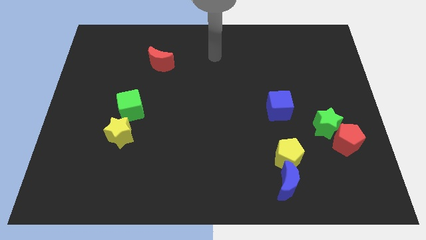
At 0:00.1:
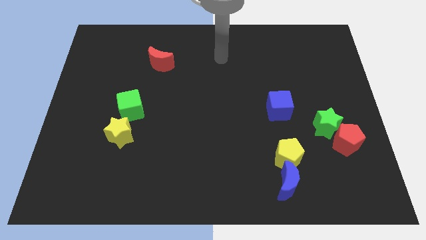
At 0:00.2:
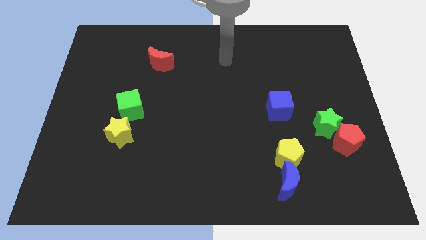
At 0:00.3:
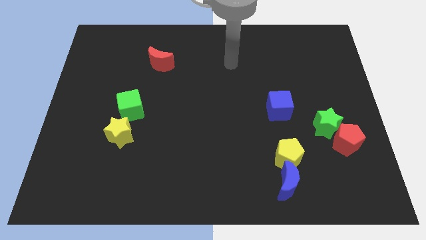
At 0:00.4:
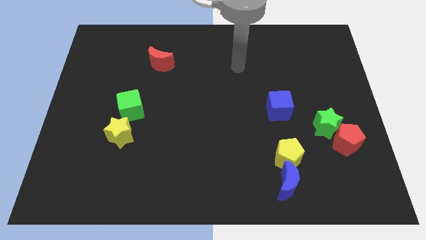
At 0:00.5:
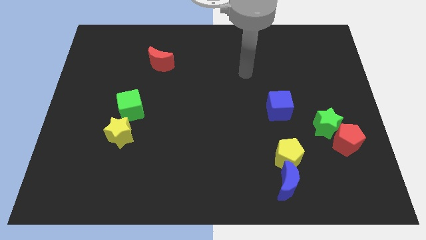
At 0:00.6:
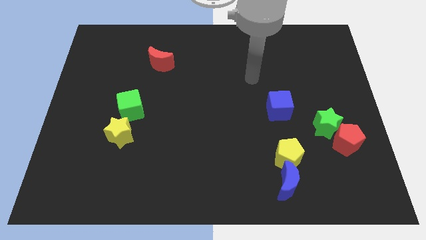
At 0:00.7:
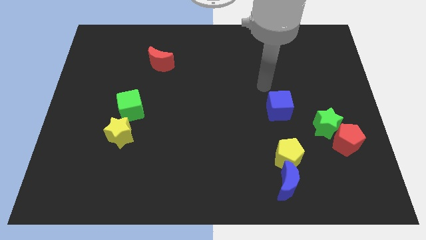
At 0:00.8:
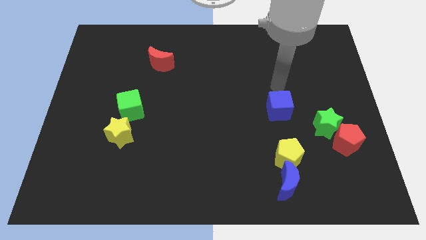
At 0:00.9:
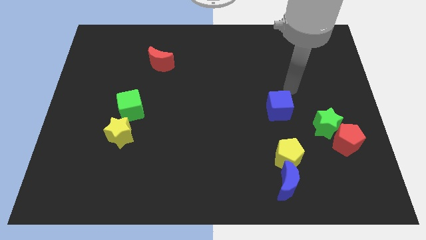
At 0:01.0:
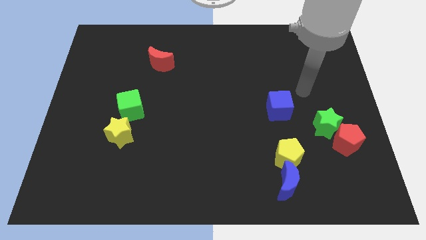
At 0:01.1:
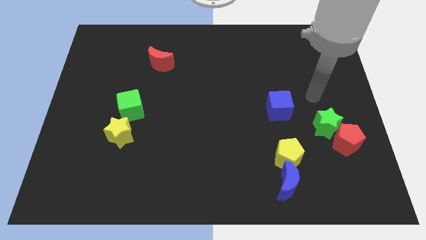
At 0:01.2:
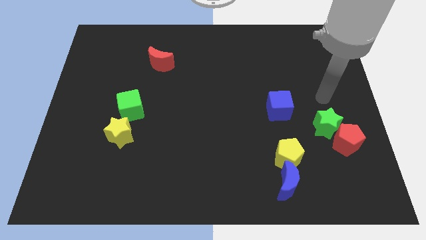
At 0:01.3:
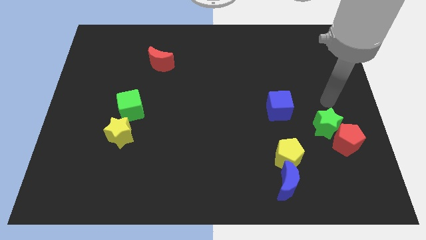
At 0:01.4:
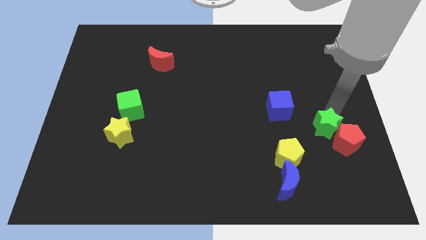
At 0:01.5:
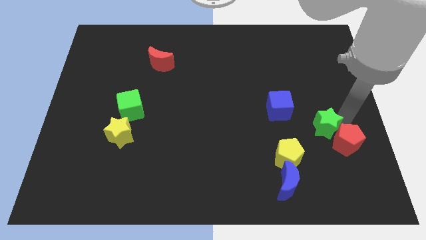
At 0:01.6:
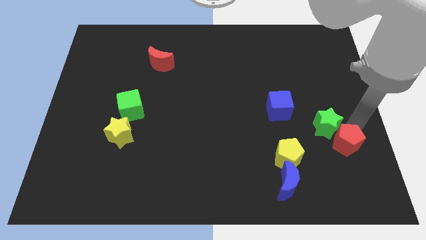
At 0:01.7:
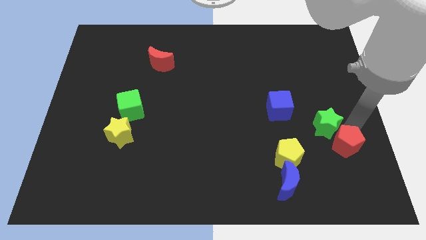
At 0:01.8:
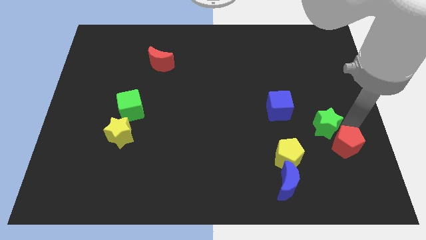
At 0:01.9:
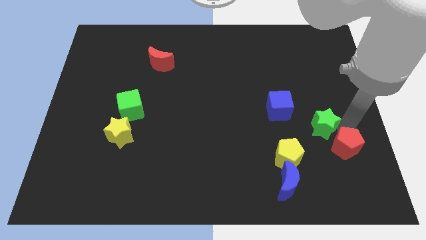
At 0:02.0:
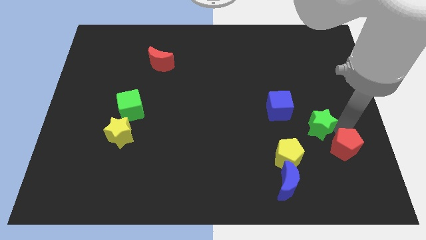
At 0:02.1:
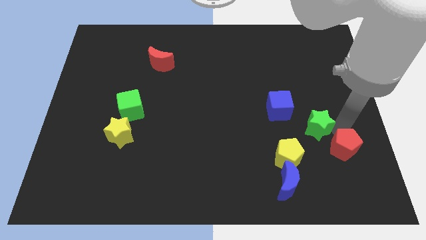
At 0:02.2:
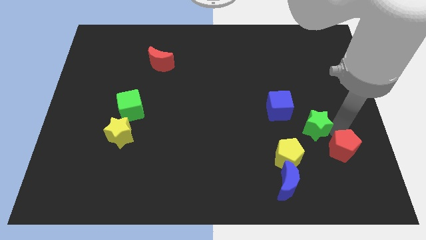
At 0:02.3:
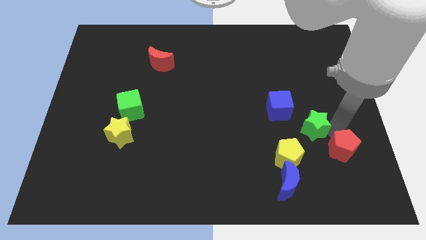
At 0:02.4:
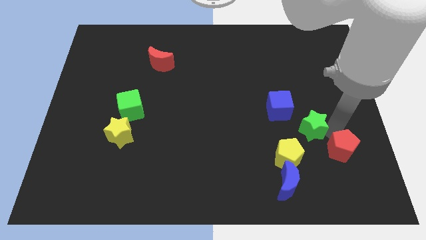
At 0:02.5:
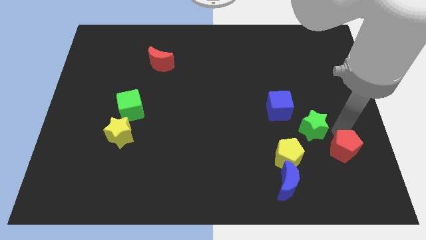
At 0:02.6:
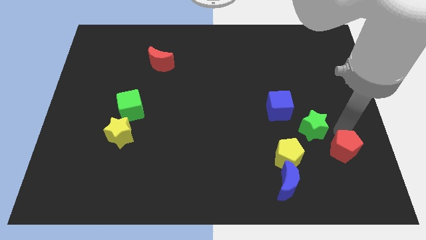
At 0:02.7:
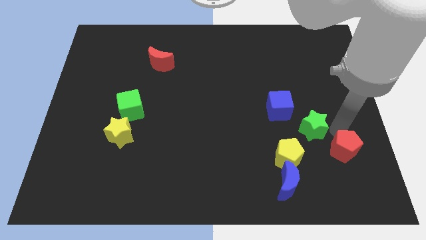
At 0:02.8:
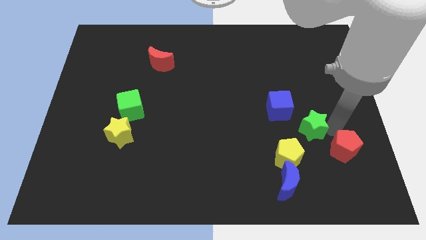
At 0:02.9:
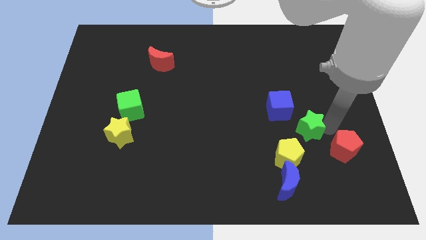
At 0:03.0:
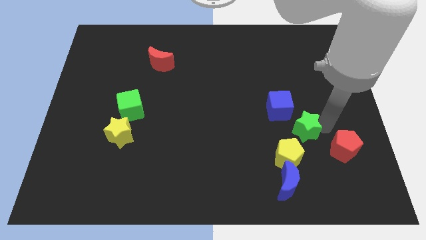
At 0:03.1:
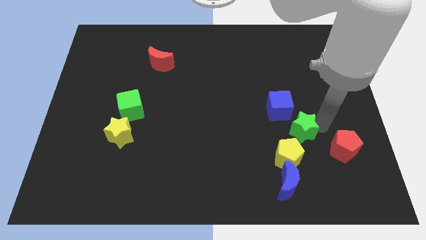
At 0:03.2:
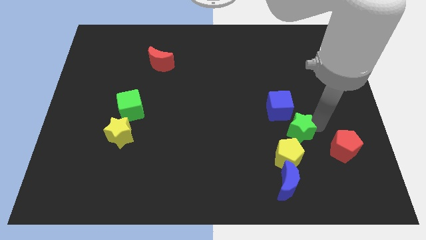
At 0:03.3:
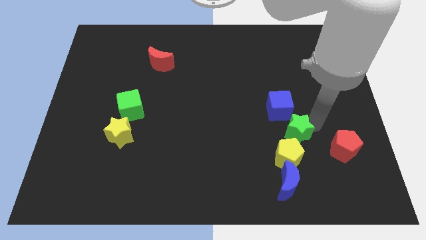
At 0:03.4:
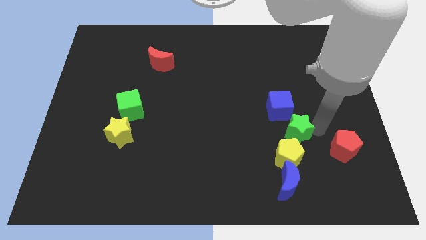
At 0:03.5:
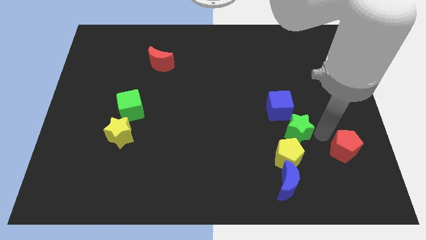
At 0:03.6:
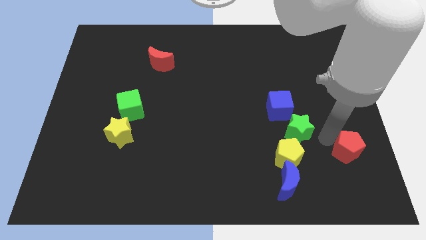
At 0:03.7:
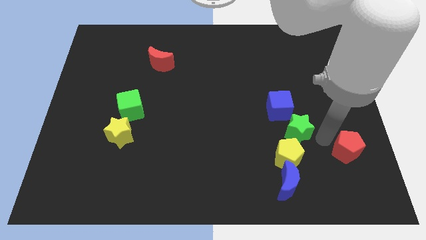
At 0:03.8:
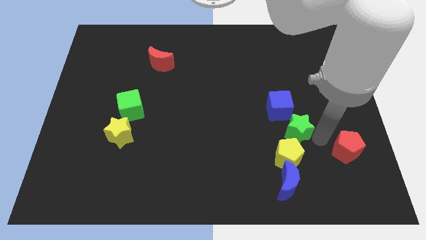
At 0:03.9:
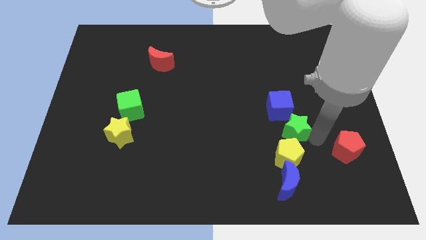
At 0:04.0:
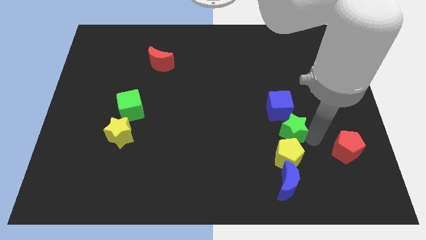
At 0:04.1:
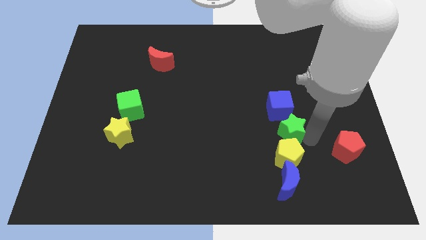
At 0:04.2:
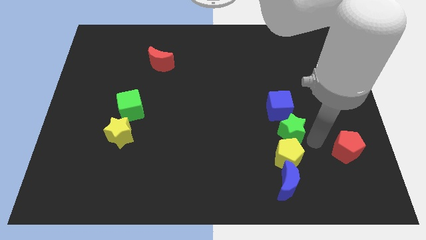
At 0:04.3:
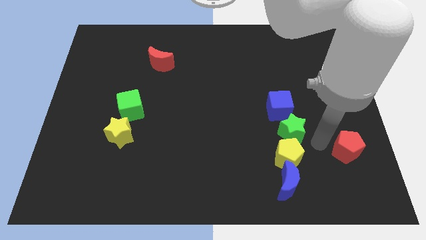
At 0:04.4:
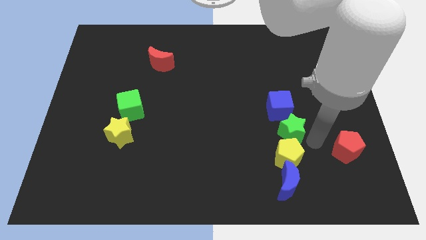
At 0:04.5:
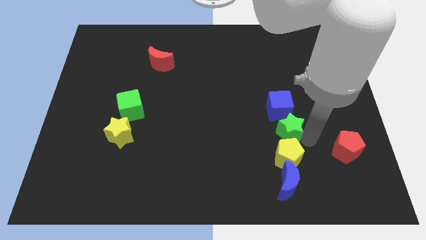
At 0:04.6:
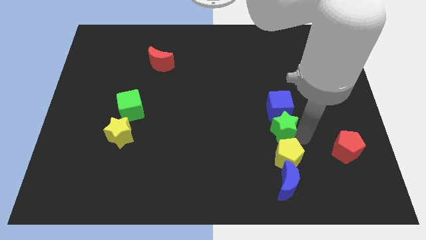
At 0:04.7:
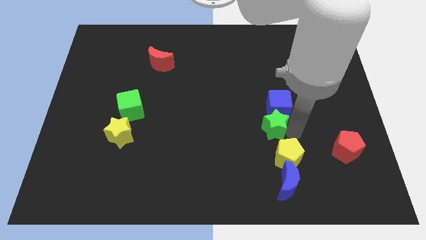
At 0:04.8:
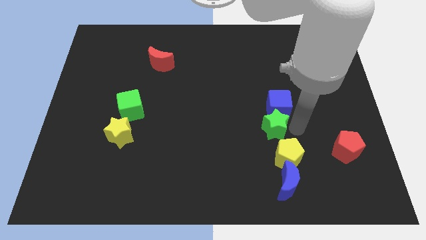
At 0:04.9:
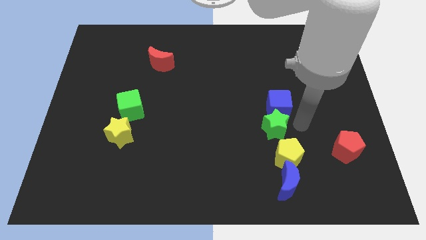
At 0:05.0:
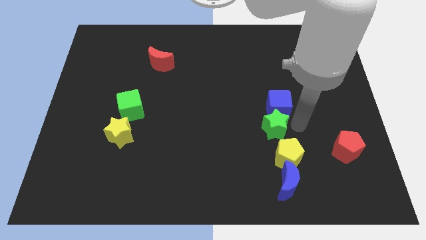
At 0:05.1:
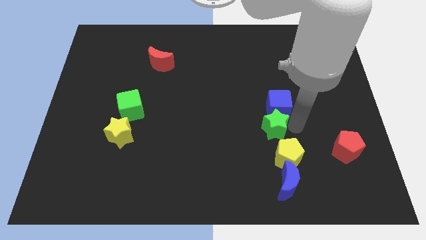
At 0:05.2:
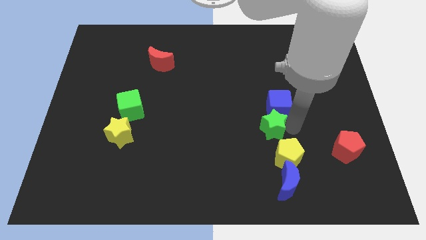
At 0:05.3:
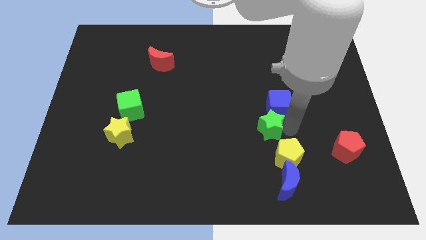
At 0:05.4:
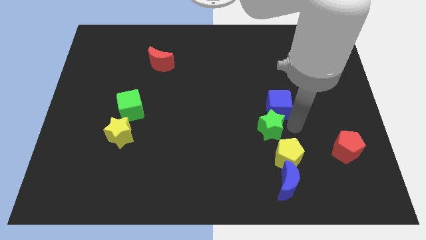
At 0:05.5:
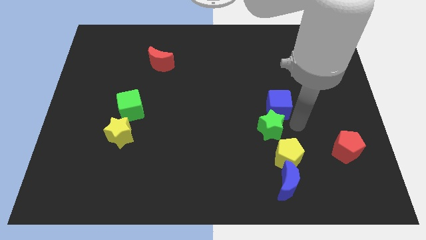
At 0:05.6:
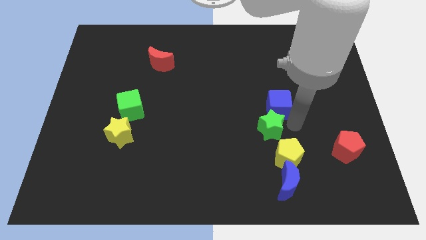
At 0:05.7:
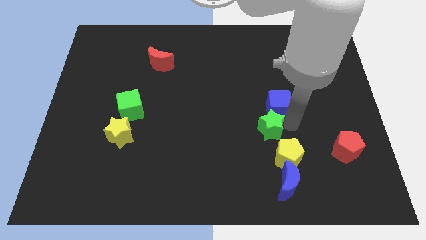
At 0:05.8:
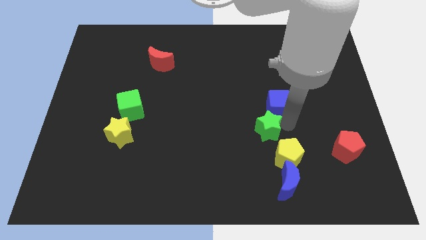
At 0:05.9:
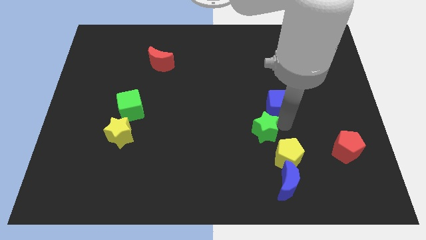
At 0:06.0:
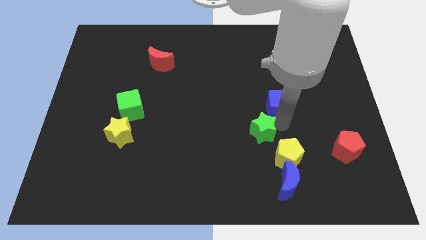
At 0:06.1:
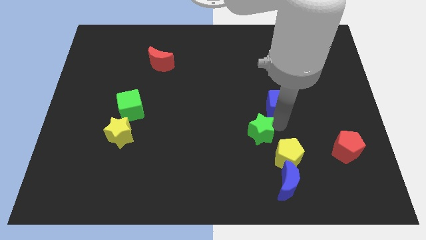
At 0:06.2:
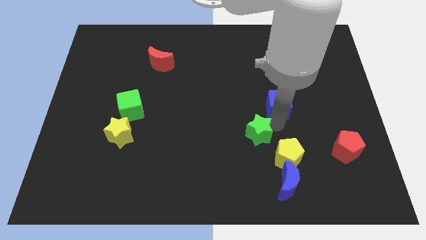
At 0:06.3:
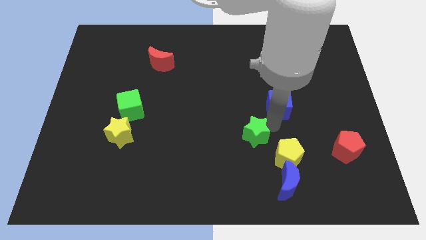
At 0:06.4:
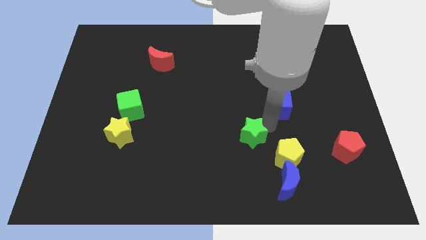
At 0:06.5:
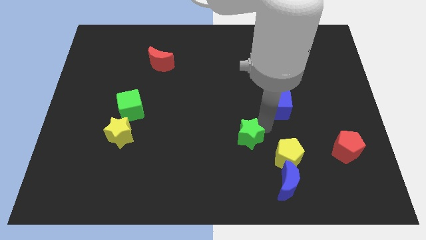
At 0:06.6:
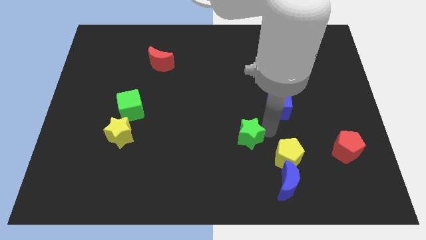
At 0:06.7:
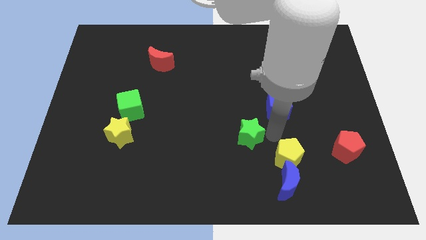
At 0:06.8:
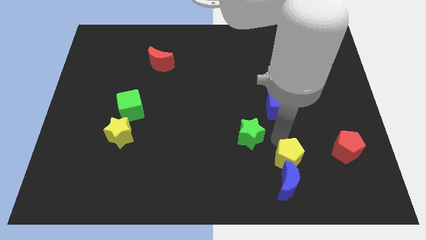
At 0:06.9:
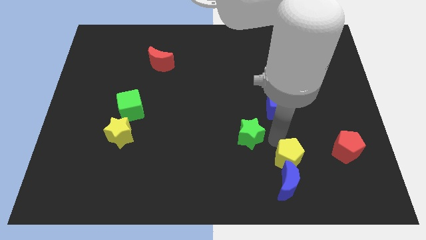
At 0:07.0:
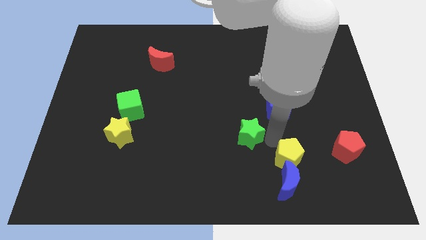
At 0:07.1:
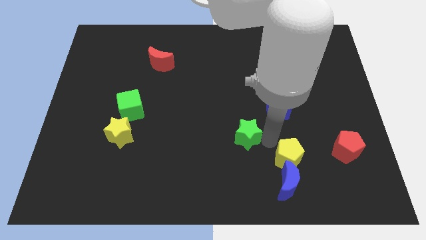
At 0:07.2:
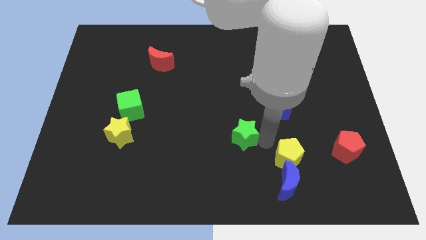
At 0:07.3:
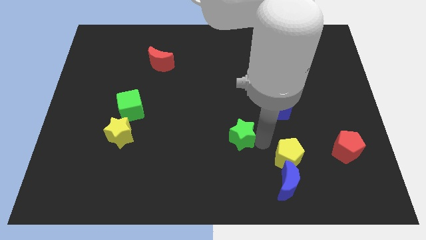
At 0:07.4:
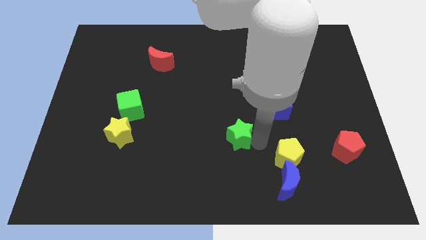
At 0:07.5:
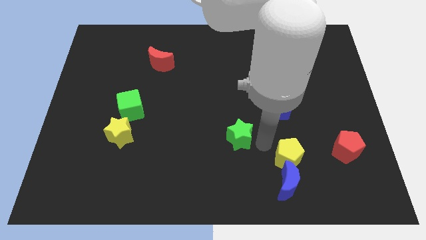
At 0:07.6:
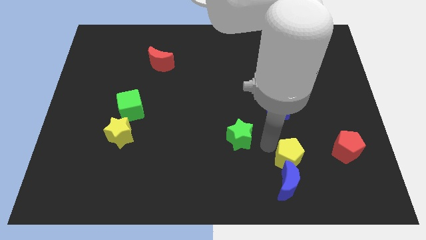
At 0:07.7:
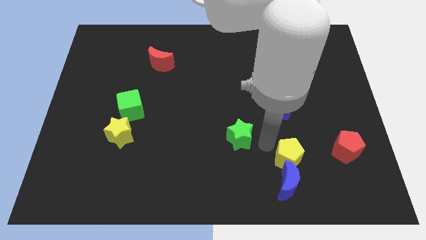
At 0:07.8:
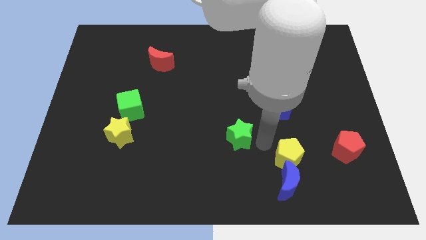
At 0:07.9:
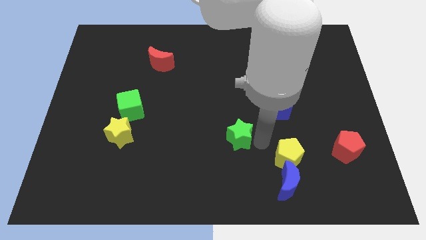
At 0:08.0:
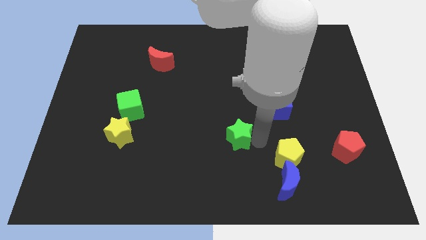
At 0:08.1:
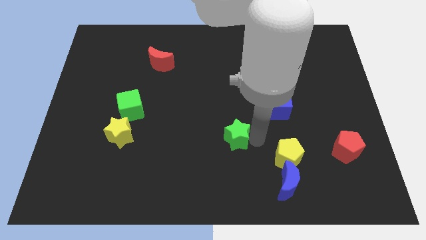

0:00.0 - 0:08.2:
slide the green star to the left
